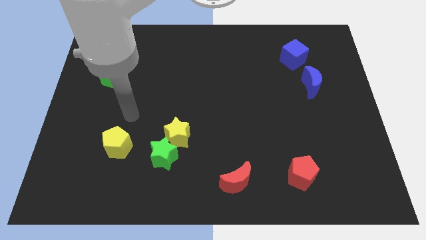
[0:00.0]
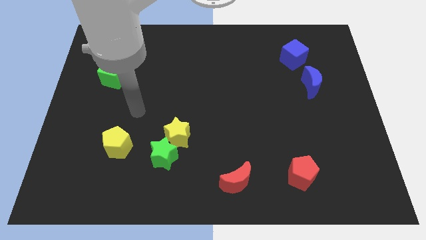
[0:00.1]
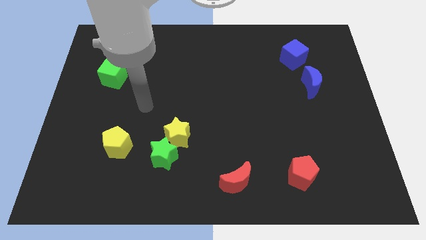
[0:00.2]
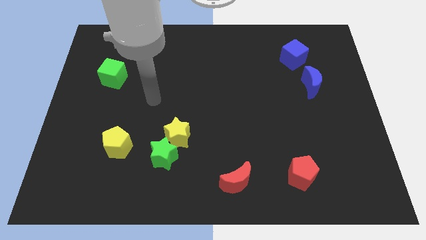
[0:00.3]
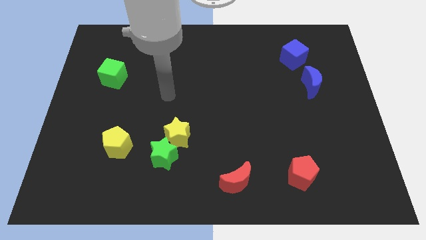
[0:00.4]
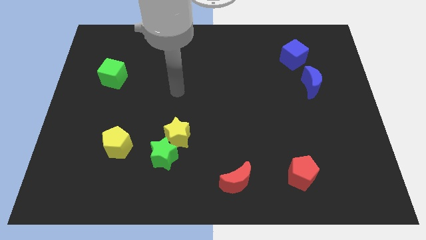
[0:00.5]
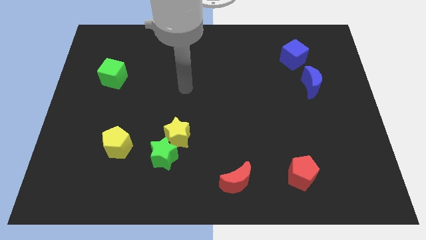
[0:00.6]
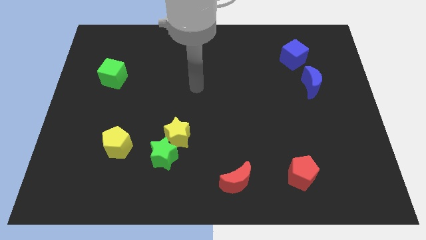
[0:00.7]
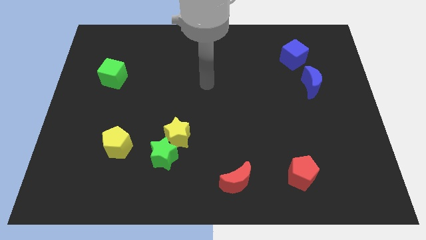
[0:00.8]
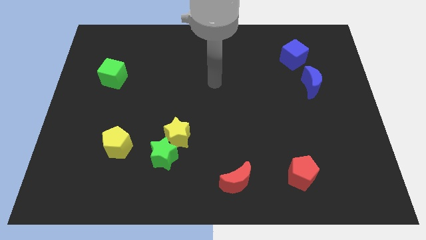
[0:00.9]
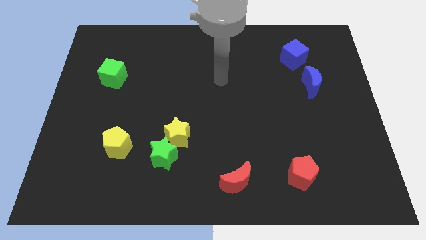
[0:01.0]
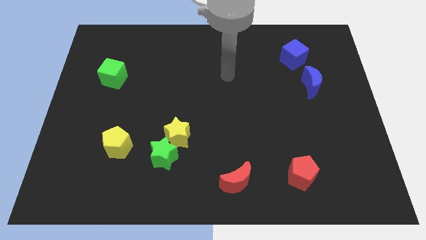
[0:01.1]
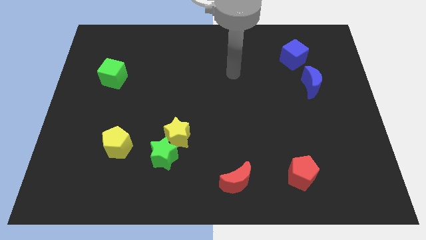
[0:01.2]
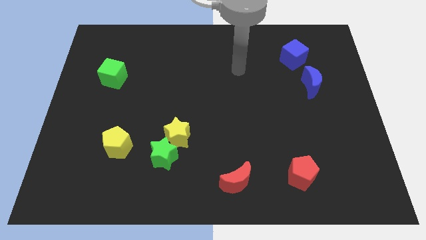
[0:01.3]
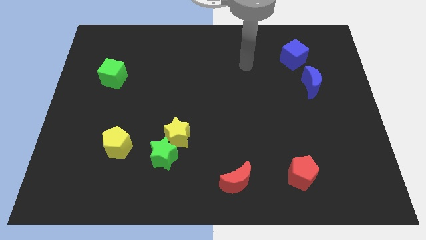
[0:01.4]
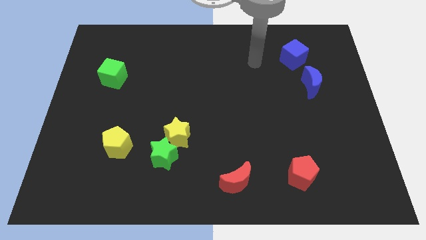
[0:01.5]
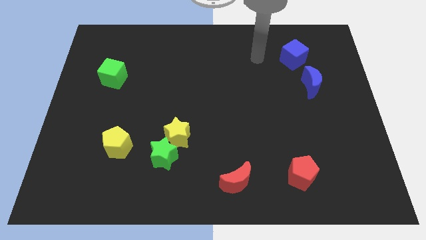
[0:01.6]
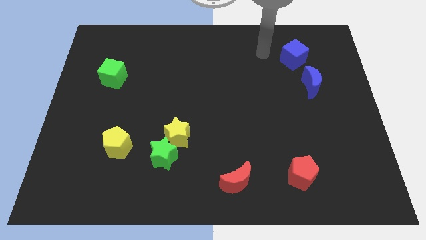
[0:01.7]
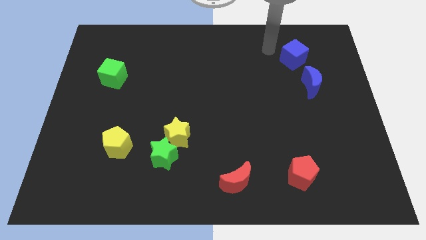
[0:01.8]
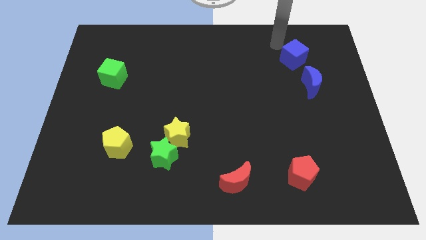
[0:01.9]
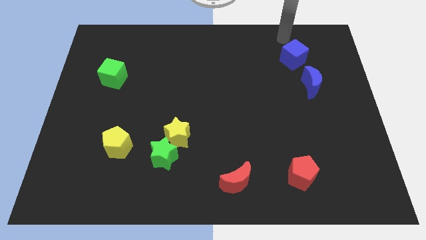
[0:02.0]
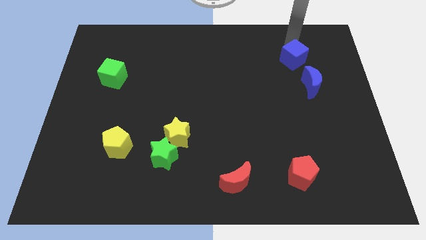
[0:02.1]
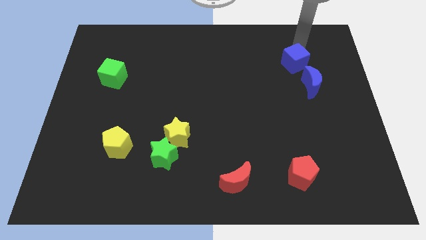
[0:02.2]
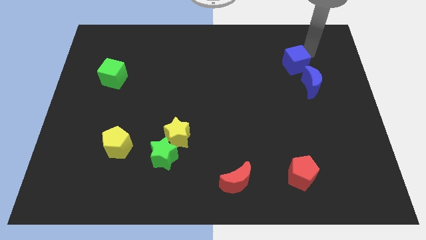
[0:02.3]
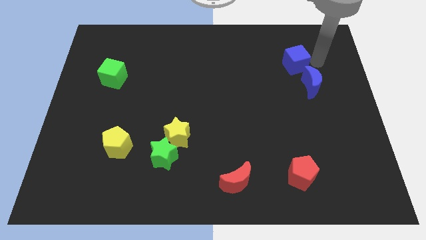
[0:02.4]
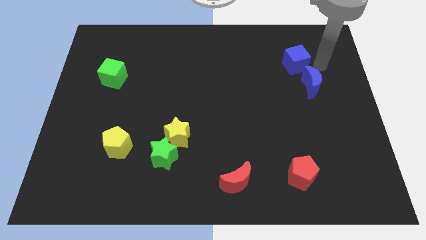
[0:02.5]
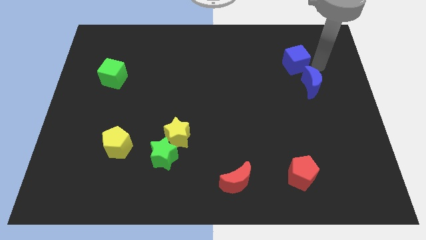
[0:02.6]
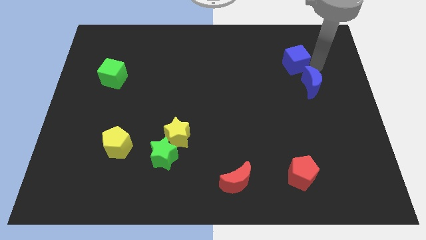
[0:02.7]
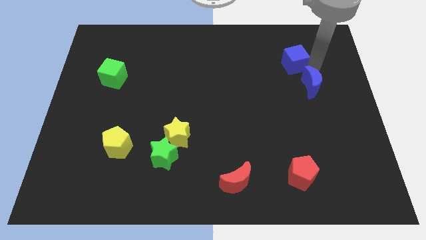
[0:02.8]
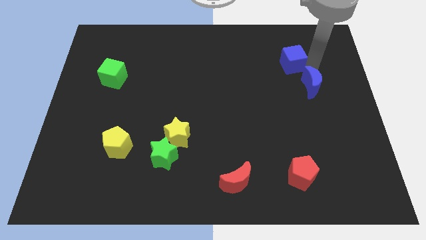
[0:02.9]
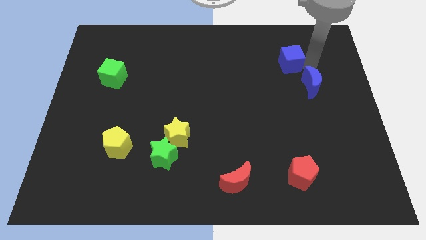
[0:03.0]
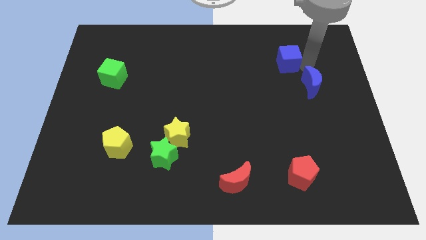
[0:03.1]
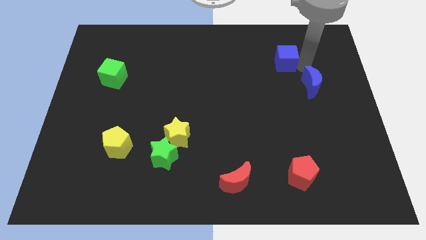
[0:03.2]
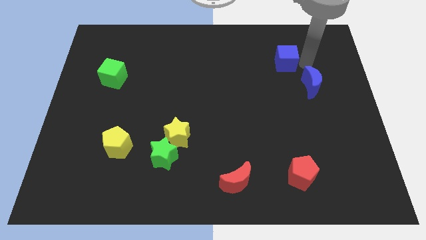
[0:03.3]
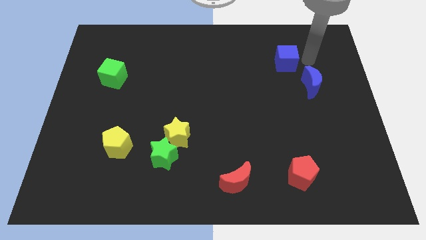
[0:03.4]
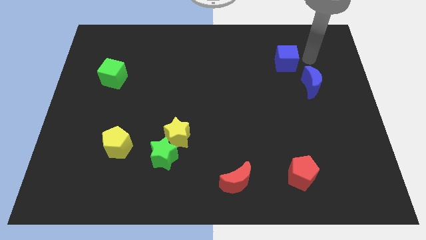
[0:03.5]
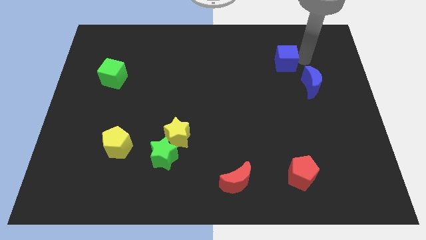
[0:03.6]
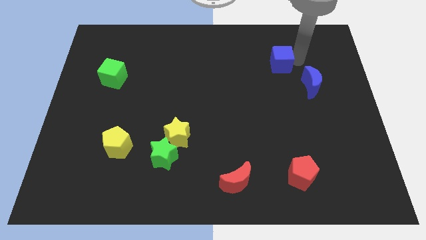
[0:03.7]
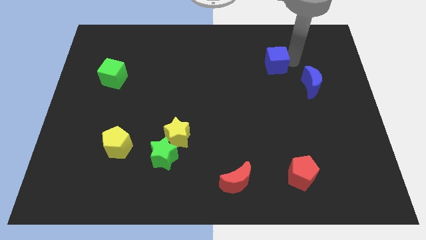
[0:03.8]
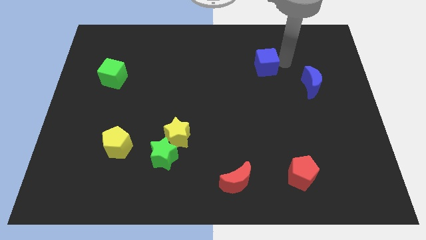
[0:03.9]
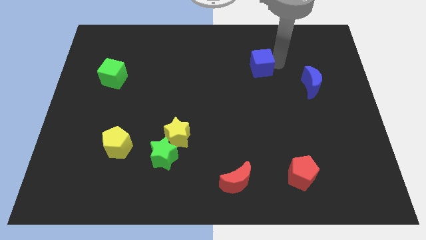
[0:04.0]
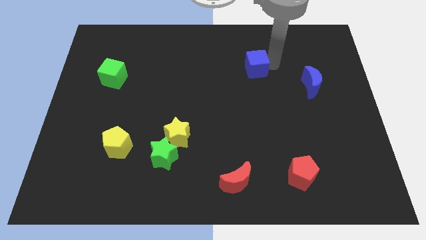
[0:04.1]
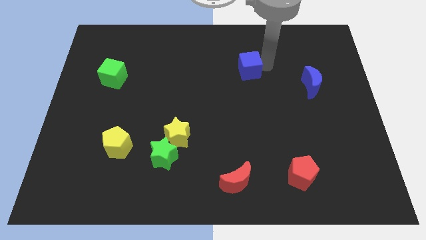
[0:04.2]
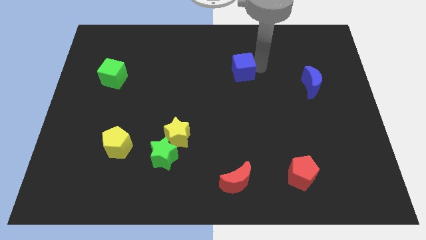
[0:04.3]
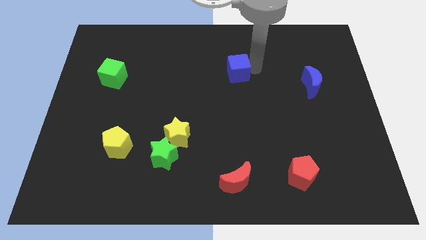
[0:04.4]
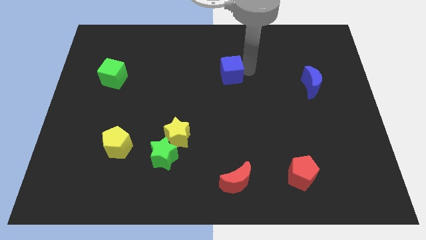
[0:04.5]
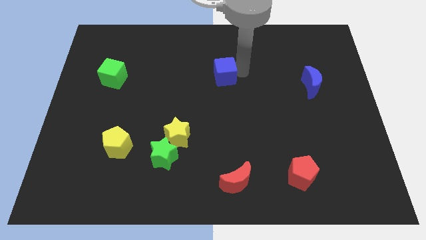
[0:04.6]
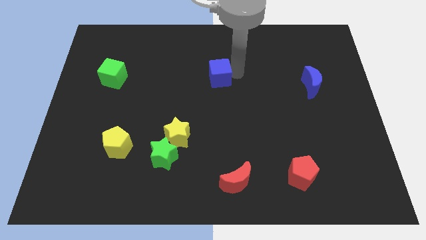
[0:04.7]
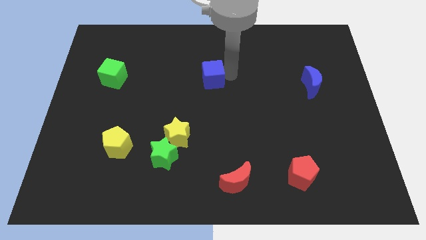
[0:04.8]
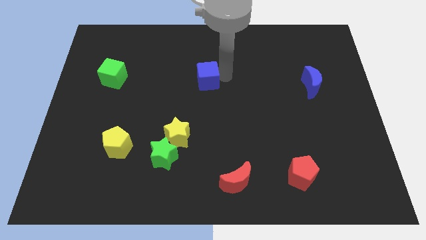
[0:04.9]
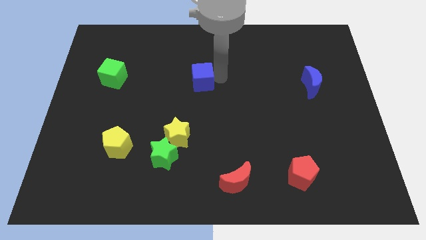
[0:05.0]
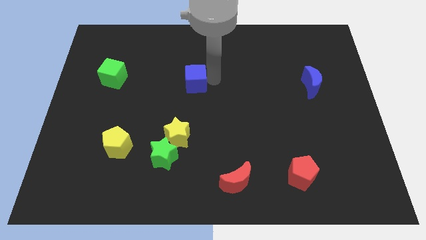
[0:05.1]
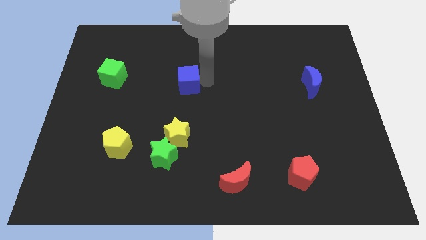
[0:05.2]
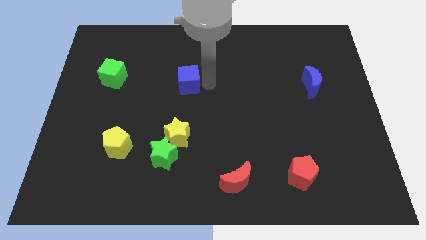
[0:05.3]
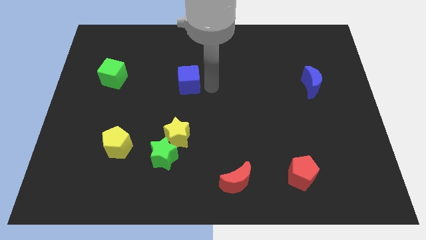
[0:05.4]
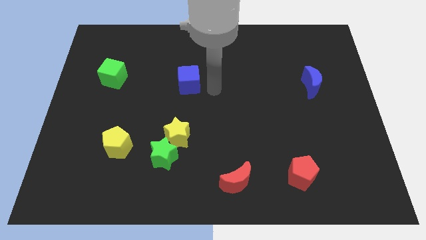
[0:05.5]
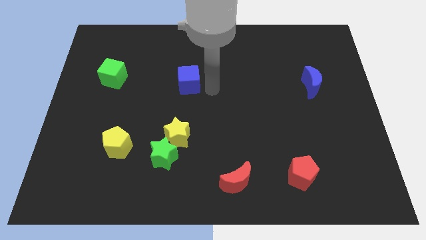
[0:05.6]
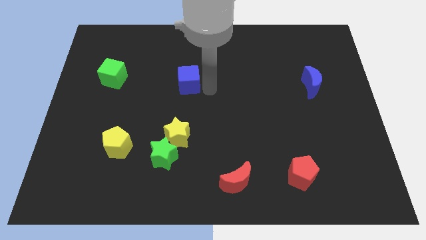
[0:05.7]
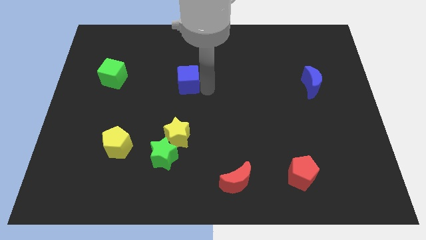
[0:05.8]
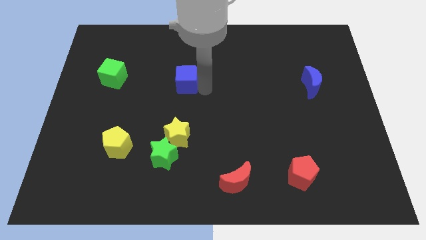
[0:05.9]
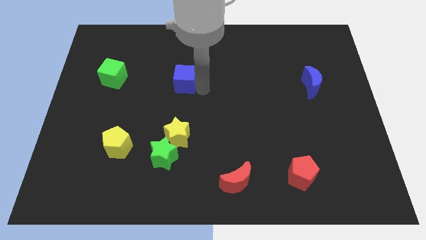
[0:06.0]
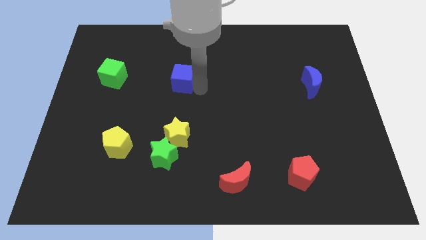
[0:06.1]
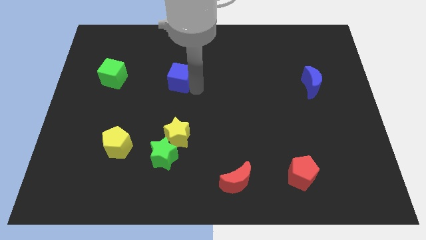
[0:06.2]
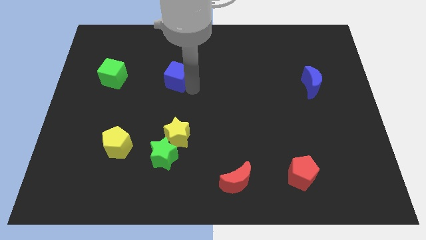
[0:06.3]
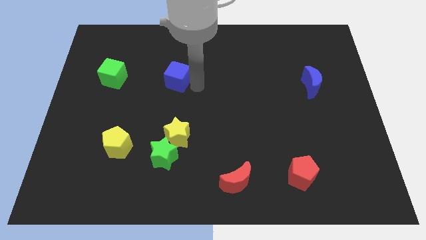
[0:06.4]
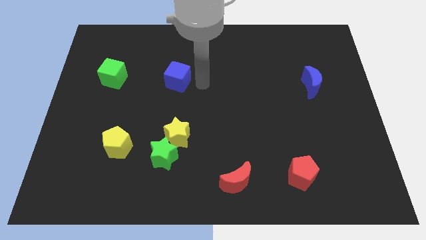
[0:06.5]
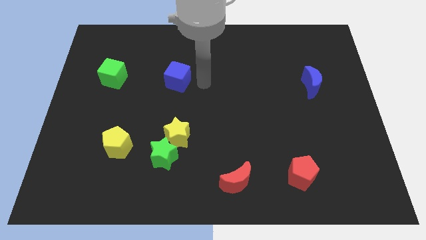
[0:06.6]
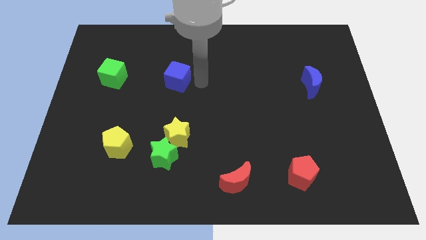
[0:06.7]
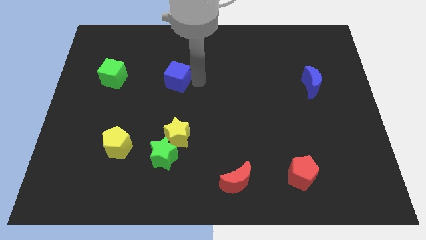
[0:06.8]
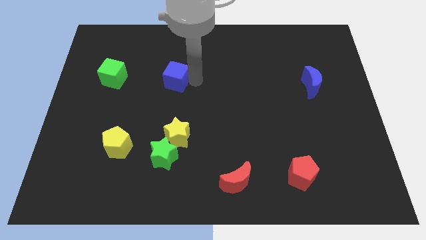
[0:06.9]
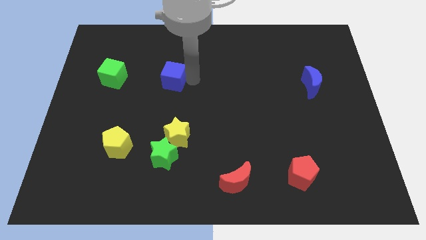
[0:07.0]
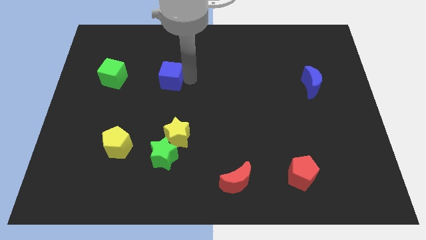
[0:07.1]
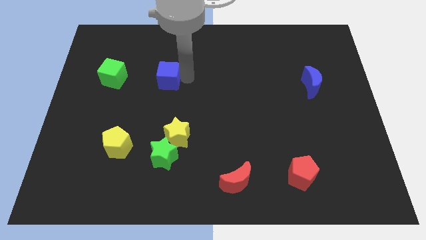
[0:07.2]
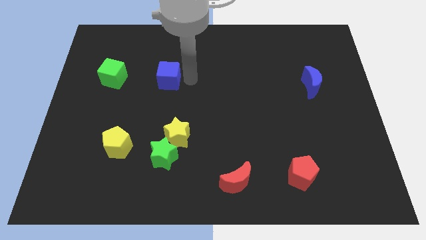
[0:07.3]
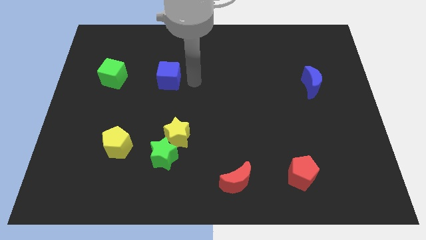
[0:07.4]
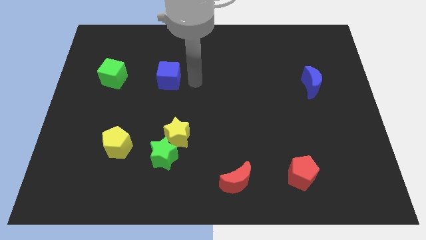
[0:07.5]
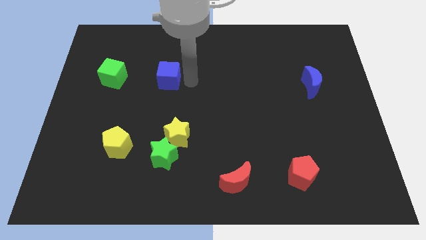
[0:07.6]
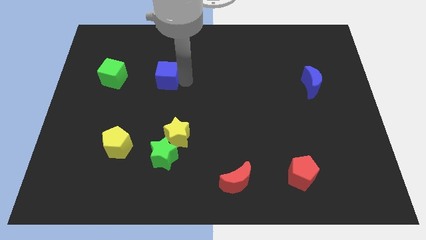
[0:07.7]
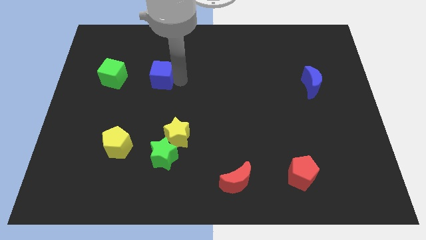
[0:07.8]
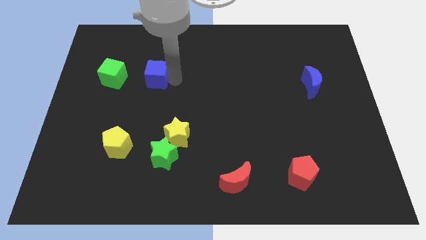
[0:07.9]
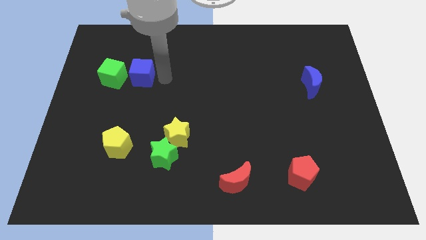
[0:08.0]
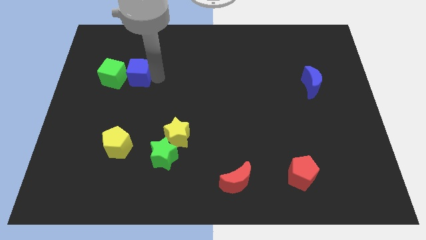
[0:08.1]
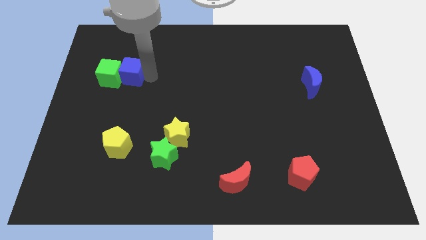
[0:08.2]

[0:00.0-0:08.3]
put the blue cube towards the green cube
